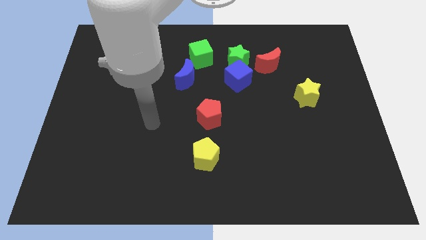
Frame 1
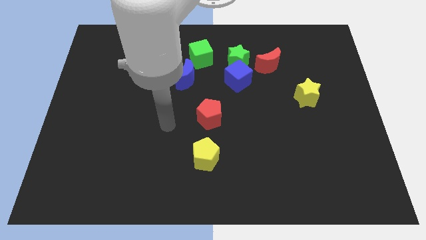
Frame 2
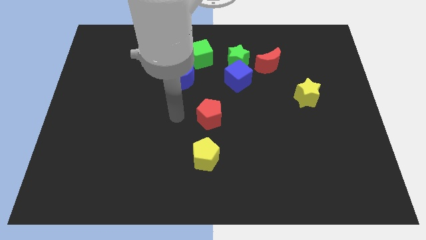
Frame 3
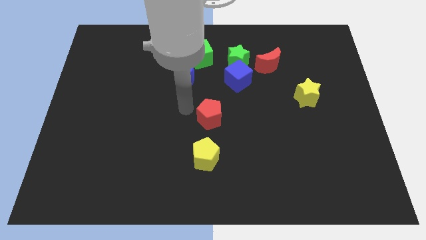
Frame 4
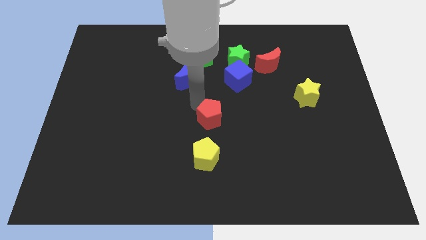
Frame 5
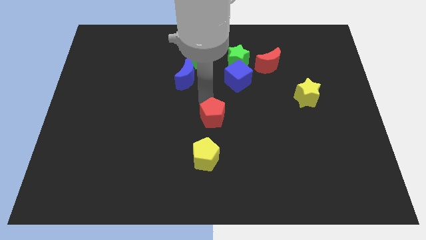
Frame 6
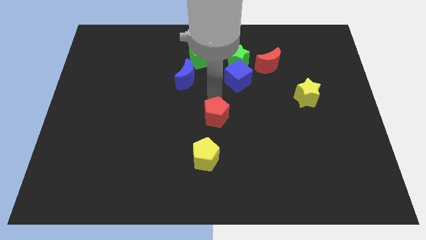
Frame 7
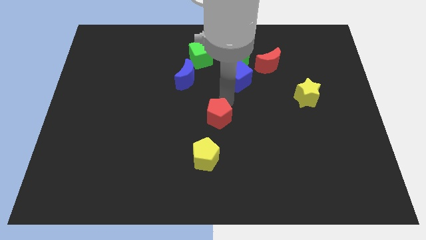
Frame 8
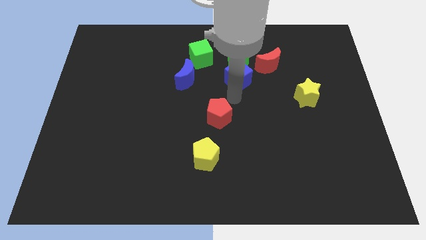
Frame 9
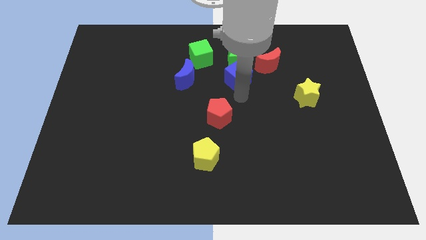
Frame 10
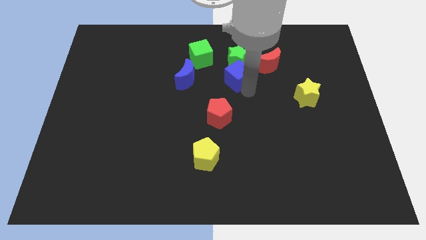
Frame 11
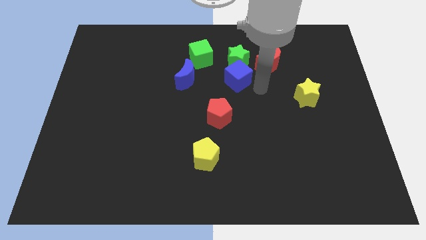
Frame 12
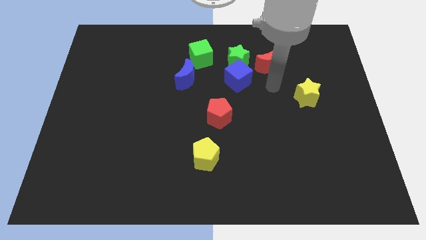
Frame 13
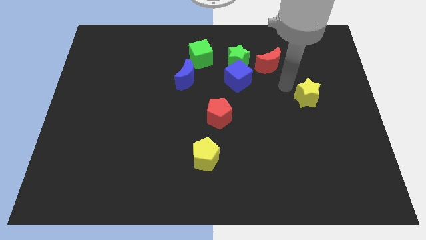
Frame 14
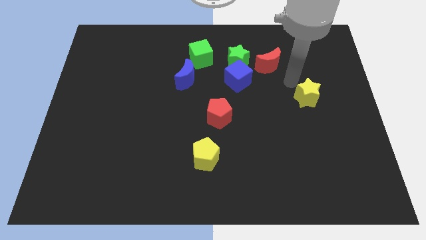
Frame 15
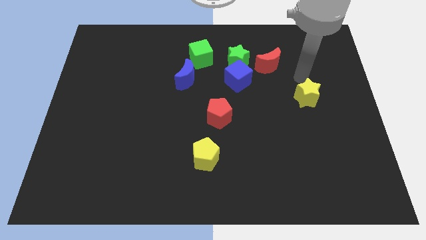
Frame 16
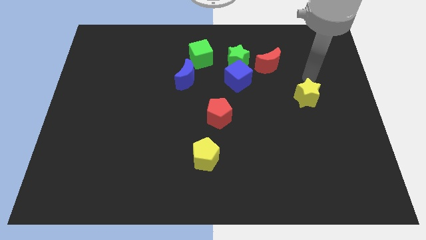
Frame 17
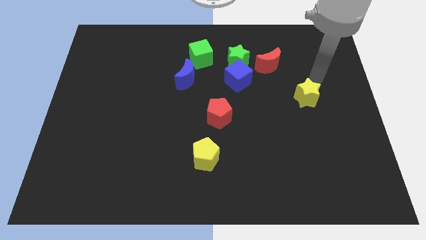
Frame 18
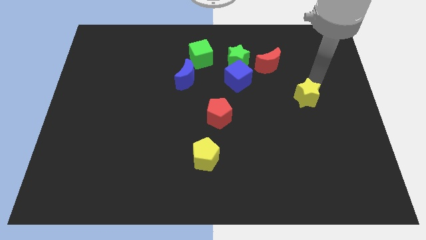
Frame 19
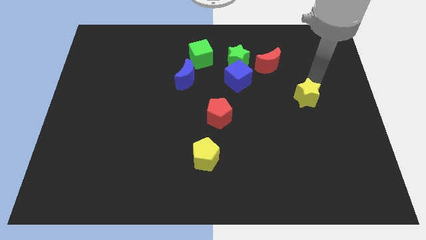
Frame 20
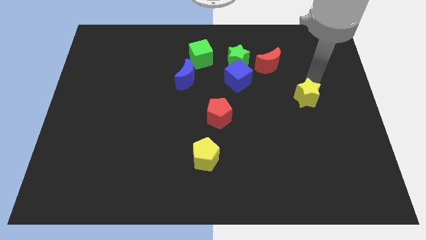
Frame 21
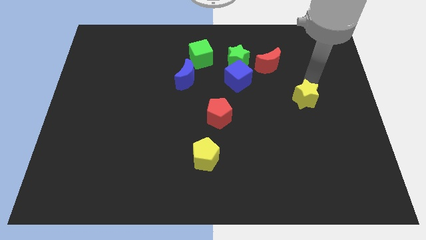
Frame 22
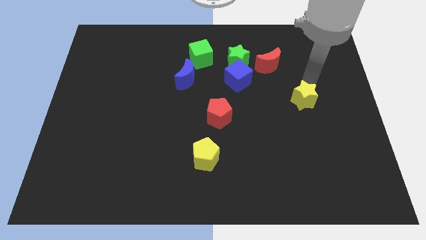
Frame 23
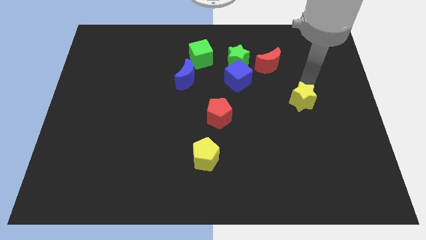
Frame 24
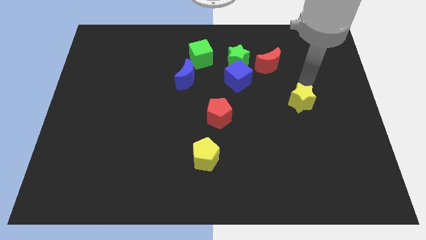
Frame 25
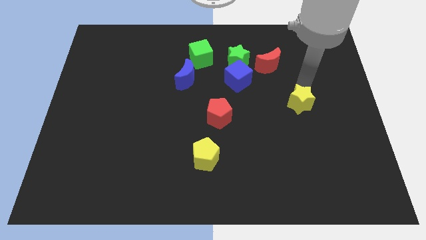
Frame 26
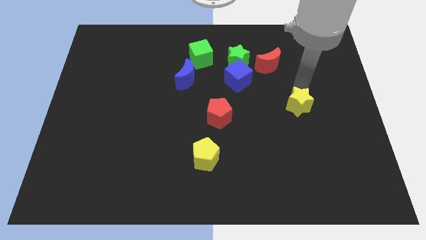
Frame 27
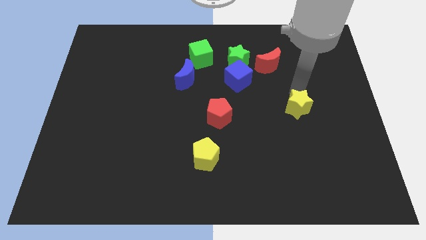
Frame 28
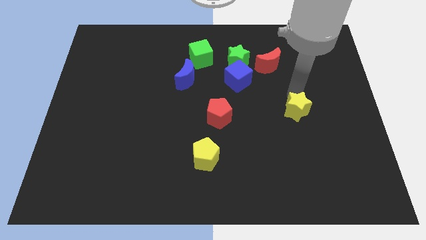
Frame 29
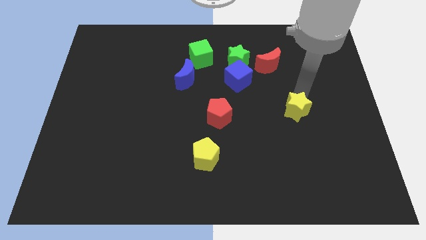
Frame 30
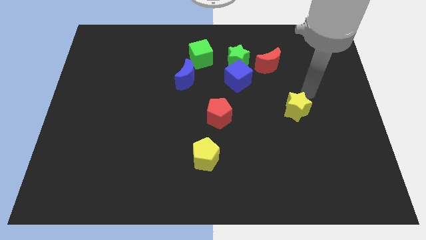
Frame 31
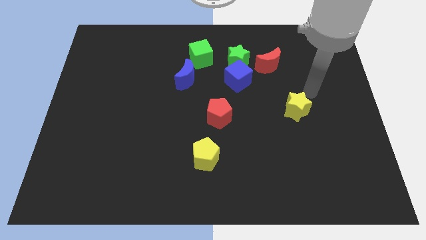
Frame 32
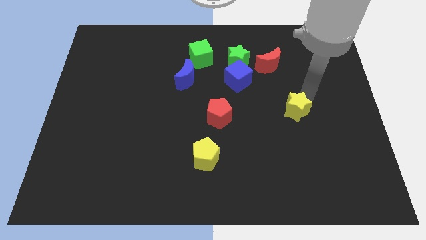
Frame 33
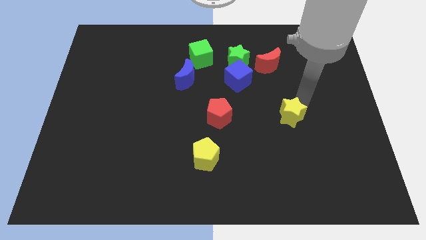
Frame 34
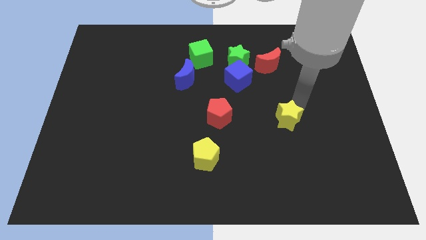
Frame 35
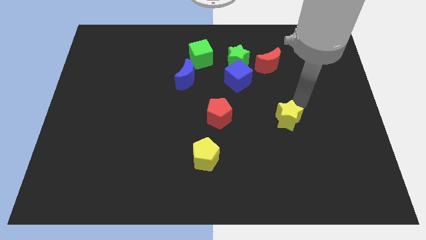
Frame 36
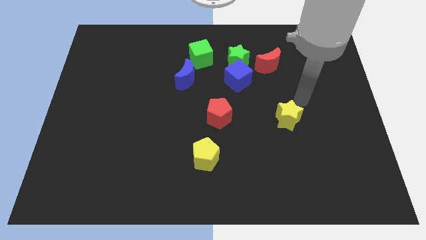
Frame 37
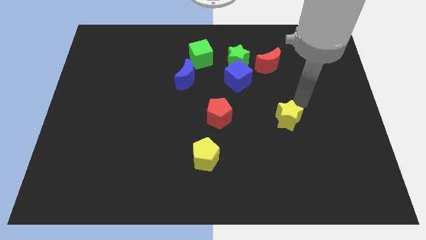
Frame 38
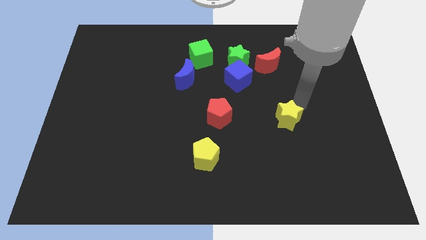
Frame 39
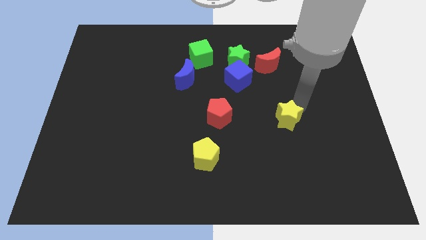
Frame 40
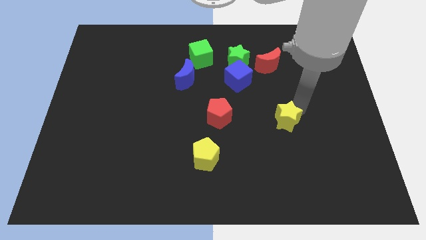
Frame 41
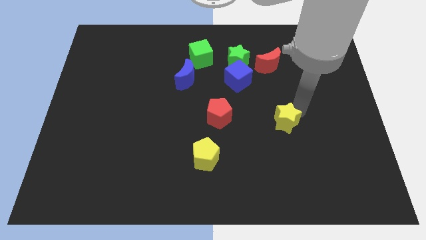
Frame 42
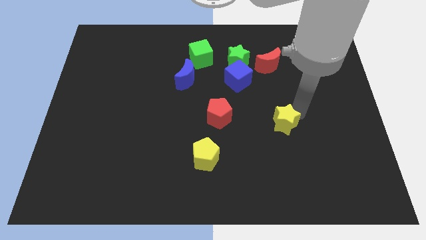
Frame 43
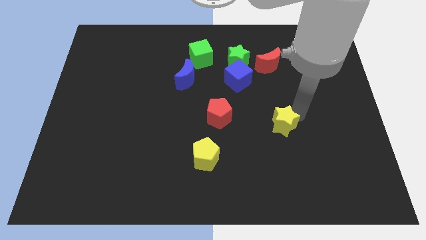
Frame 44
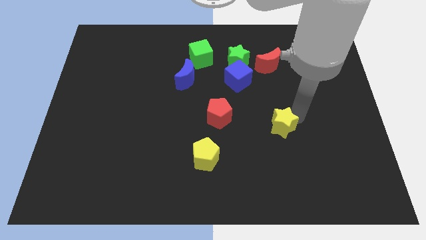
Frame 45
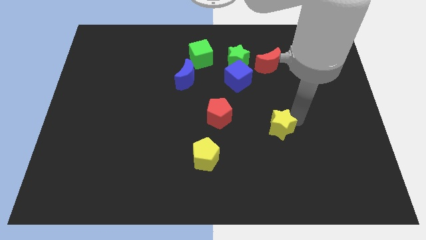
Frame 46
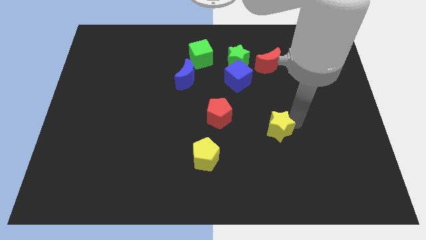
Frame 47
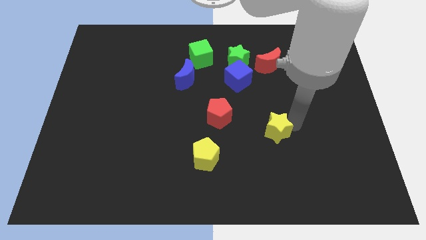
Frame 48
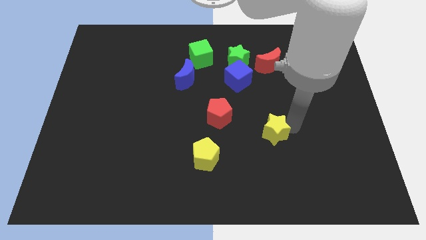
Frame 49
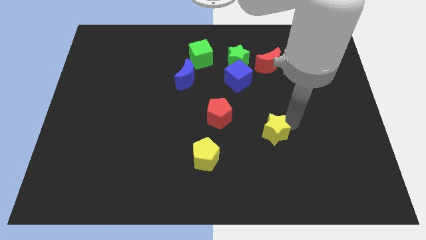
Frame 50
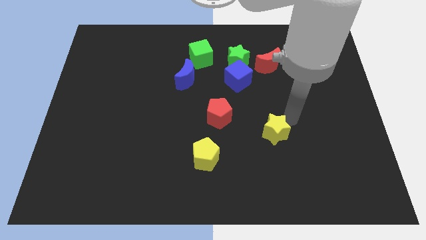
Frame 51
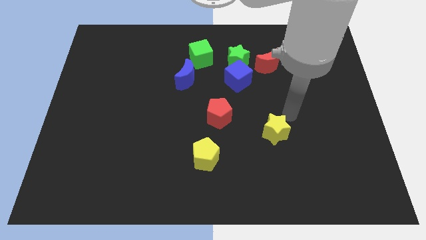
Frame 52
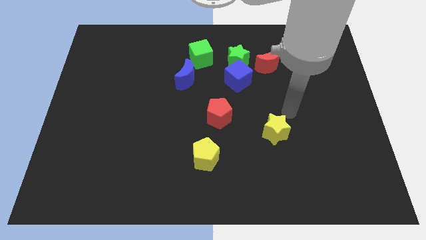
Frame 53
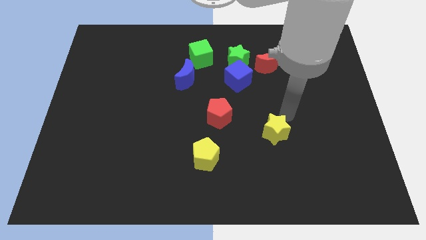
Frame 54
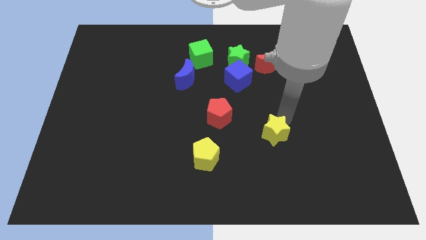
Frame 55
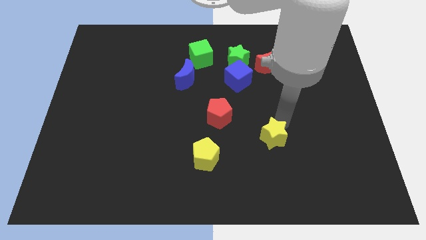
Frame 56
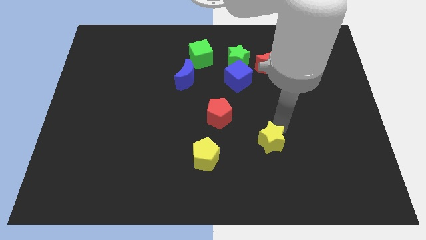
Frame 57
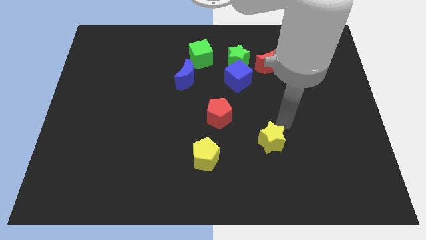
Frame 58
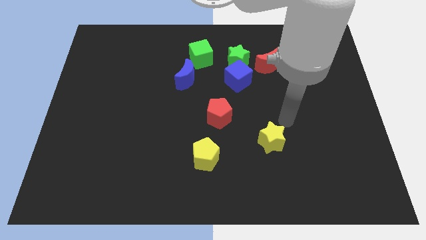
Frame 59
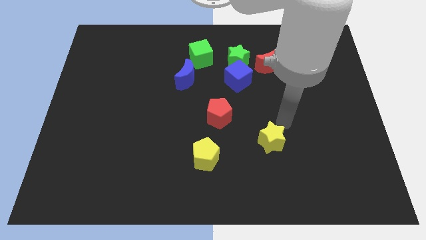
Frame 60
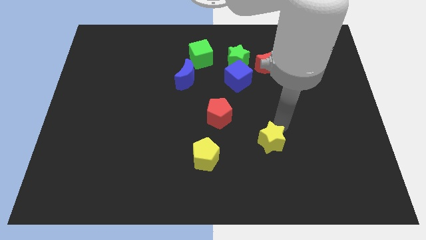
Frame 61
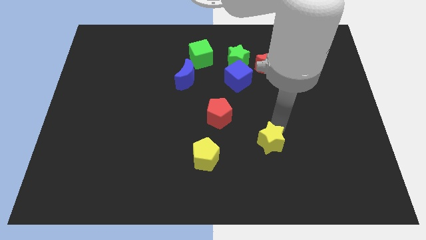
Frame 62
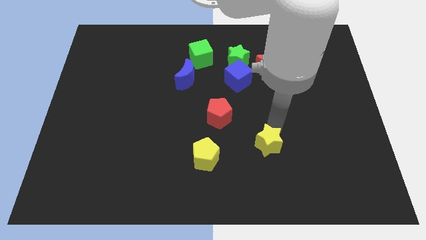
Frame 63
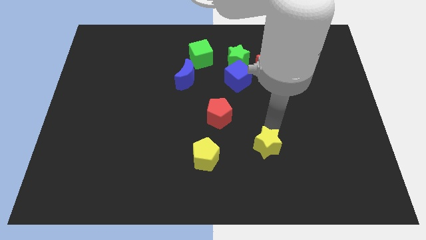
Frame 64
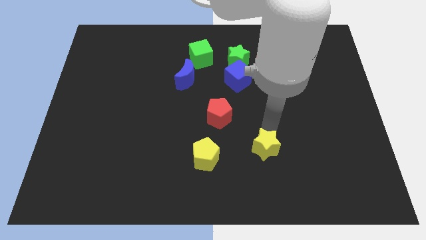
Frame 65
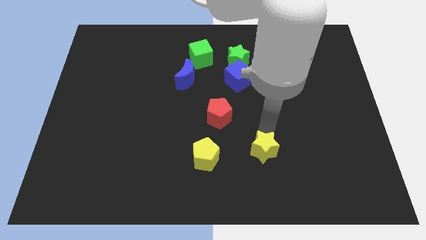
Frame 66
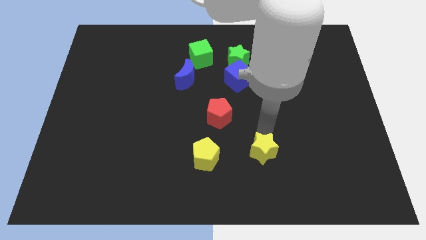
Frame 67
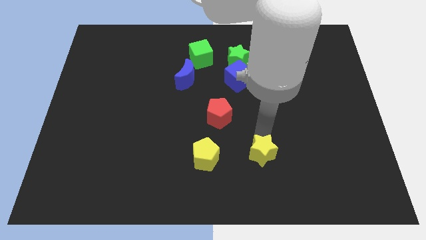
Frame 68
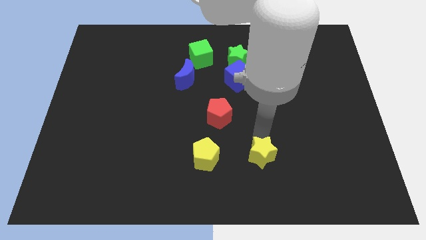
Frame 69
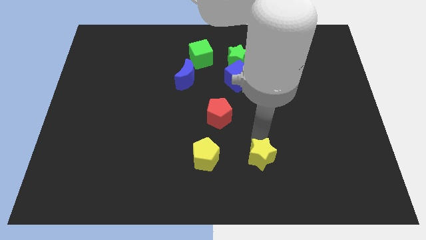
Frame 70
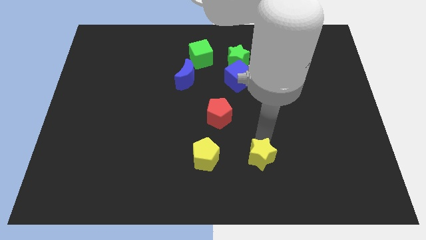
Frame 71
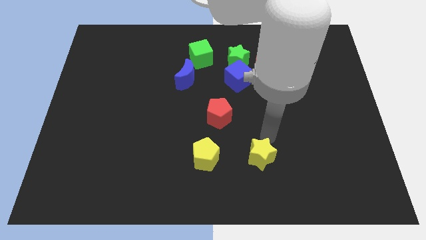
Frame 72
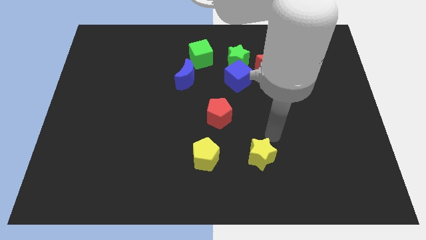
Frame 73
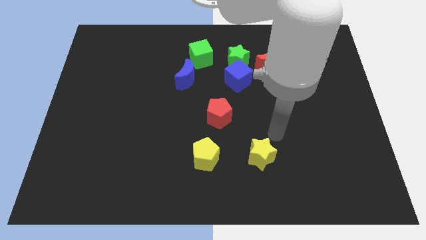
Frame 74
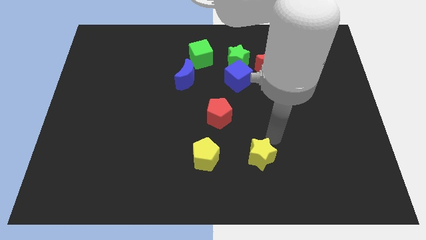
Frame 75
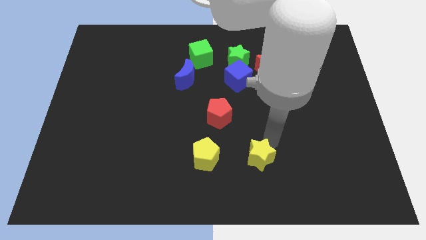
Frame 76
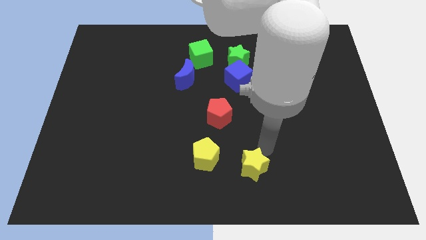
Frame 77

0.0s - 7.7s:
push the yellow star to the bottom
